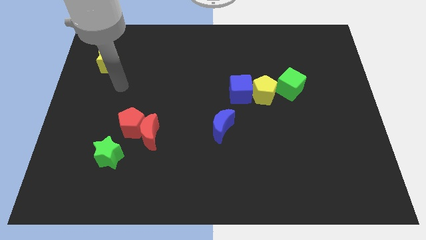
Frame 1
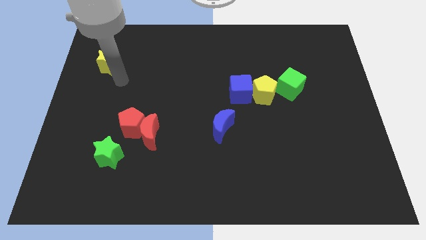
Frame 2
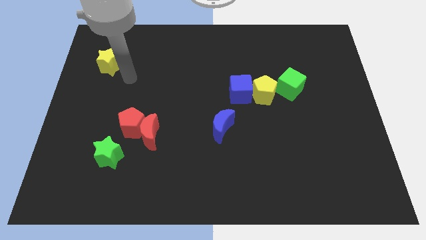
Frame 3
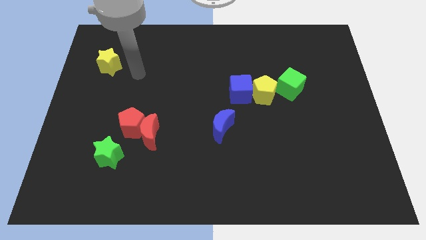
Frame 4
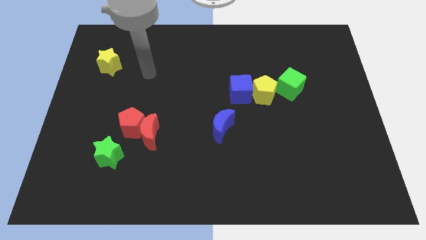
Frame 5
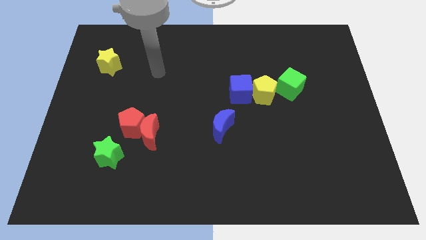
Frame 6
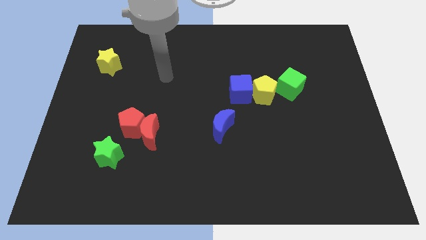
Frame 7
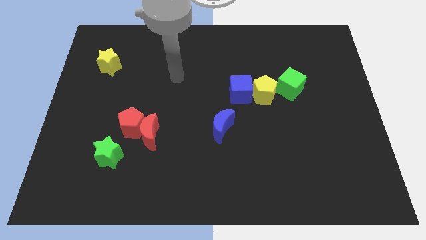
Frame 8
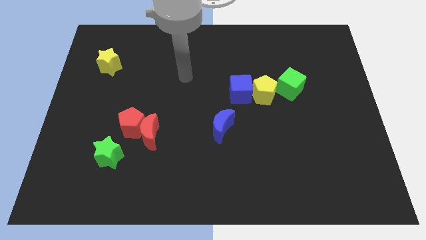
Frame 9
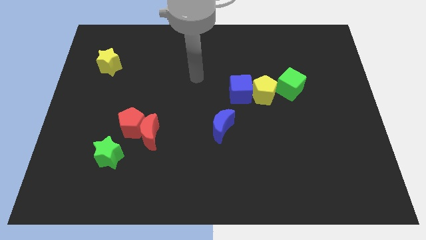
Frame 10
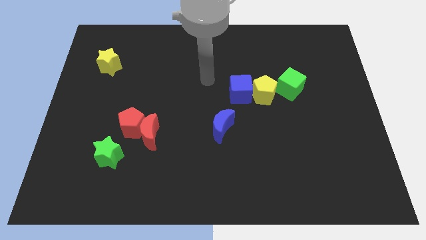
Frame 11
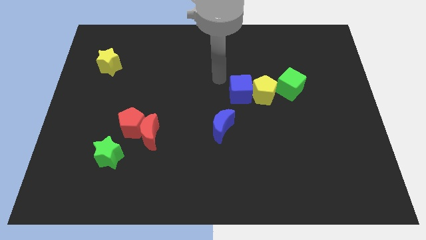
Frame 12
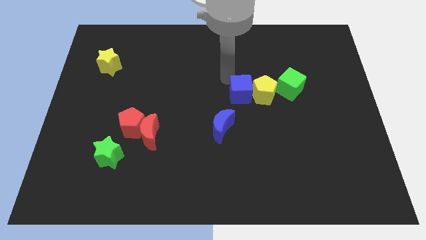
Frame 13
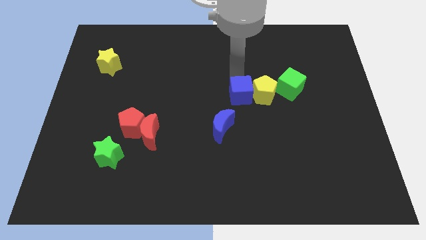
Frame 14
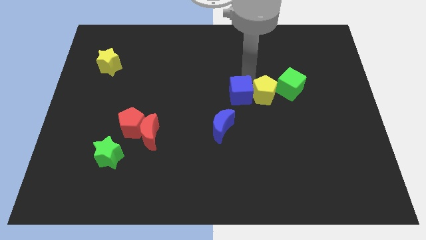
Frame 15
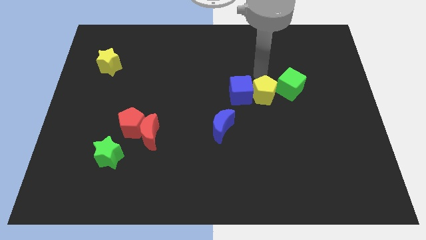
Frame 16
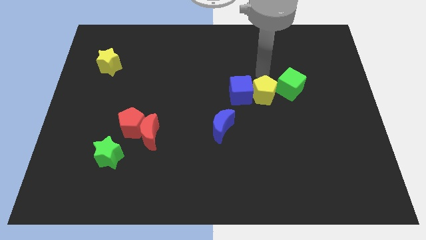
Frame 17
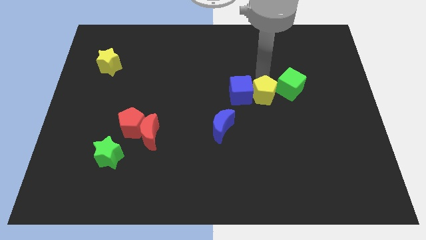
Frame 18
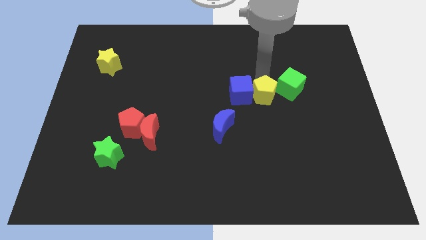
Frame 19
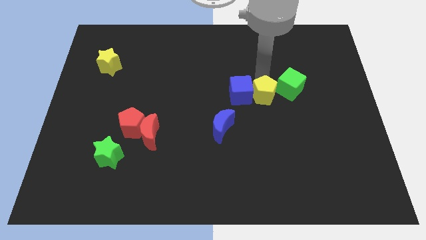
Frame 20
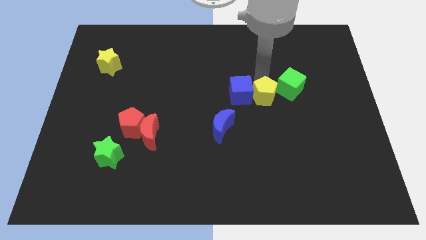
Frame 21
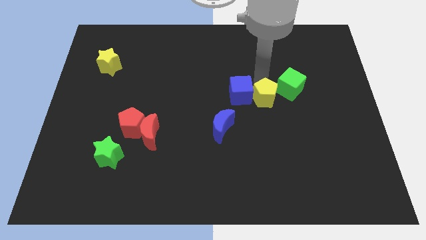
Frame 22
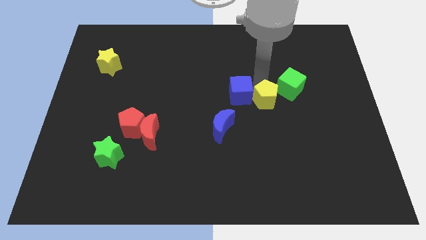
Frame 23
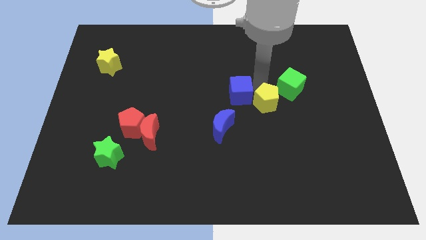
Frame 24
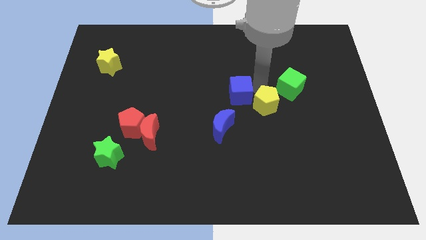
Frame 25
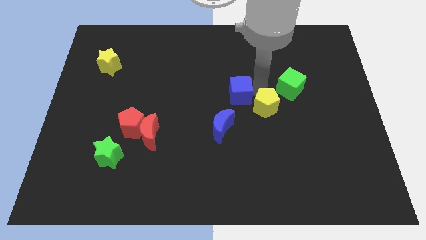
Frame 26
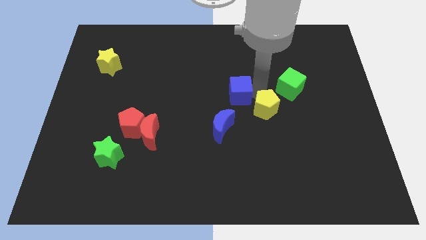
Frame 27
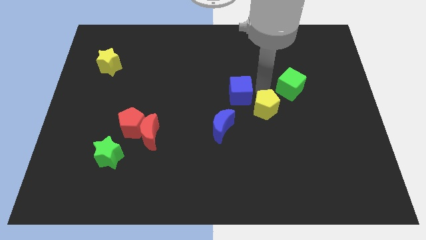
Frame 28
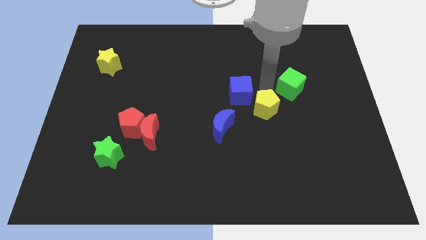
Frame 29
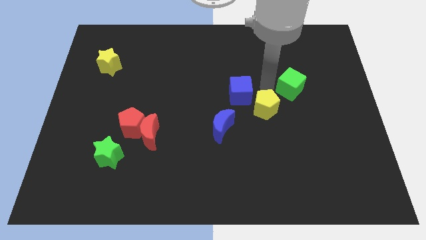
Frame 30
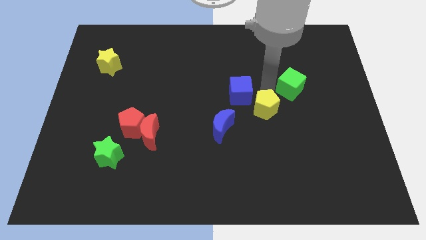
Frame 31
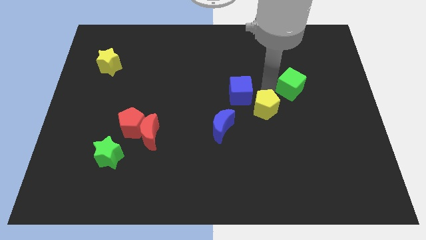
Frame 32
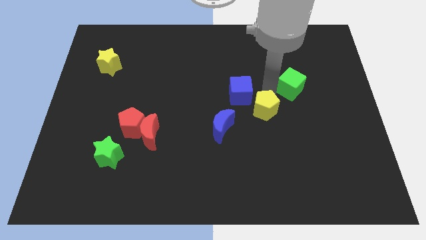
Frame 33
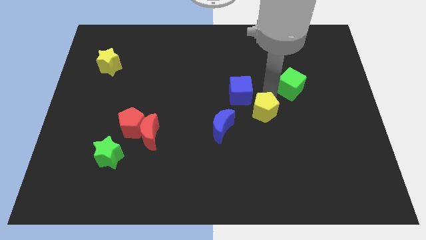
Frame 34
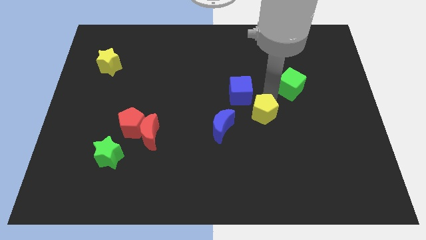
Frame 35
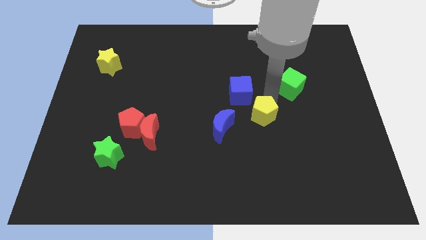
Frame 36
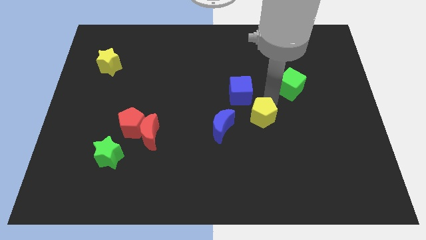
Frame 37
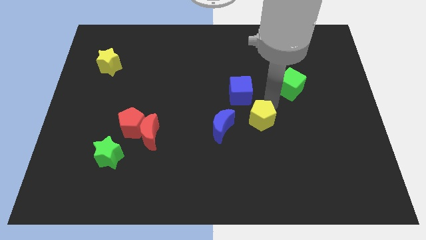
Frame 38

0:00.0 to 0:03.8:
slightly slide the yellow pentagon downwards

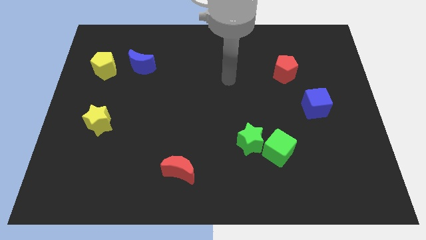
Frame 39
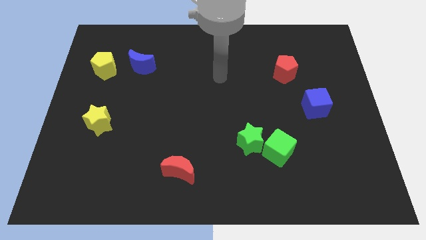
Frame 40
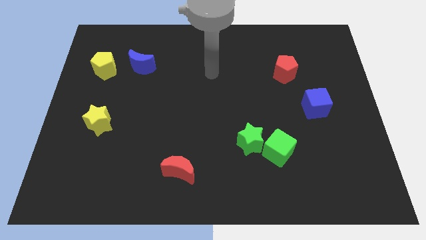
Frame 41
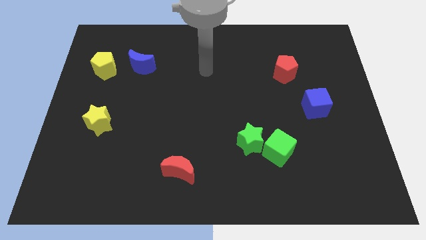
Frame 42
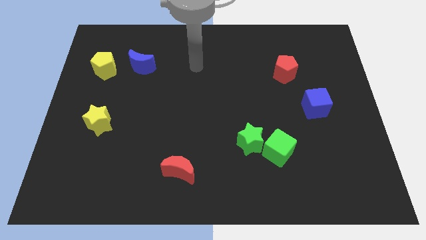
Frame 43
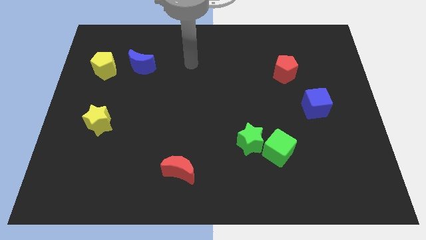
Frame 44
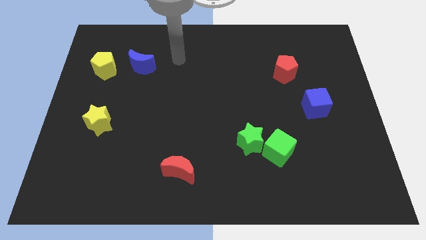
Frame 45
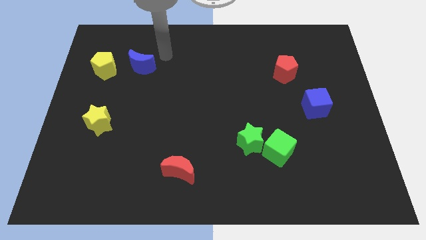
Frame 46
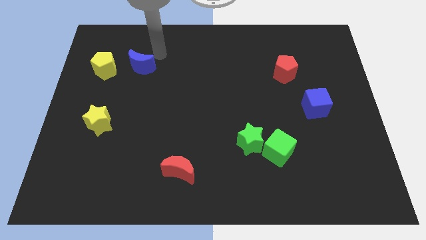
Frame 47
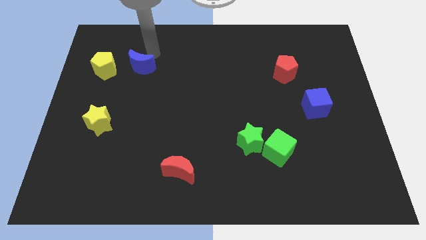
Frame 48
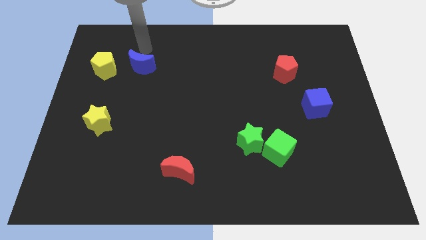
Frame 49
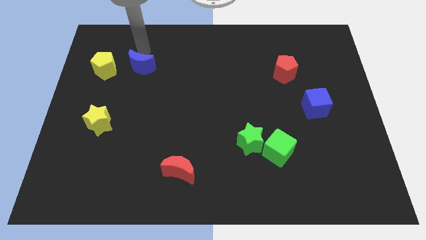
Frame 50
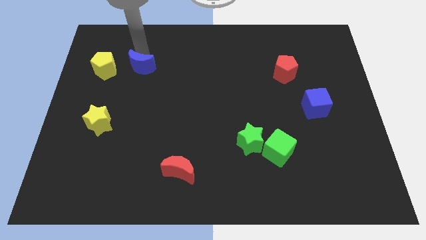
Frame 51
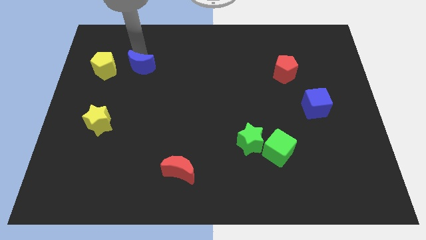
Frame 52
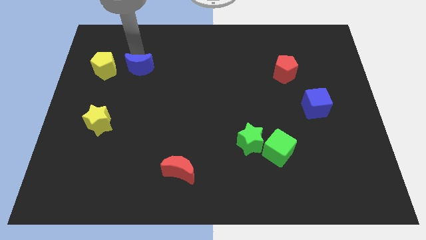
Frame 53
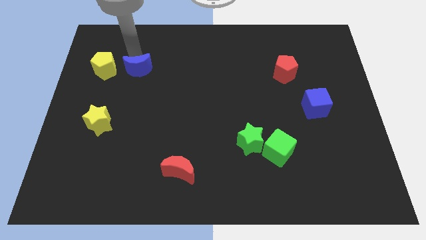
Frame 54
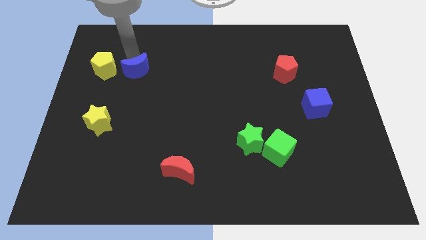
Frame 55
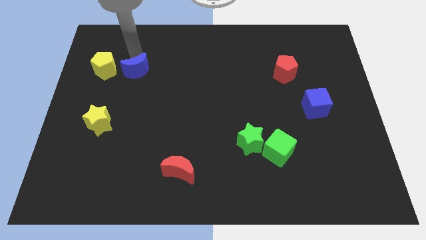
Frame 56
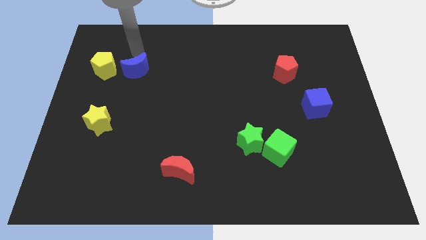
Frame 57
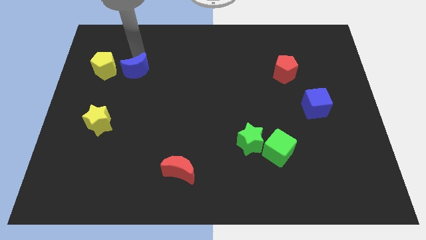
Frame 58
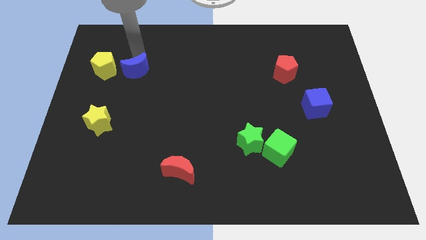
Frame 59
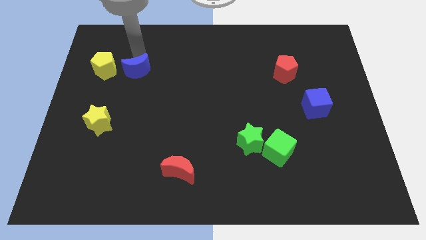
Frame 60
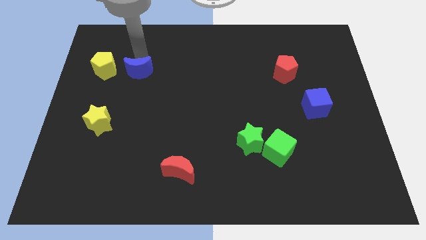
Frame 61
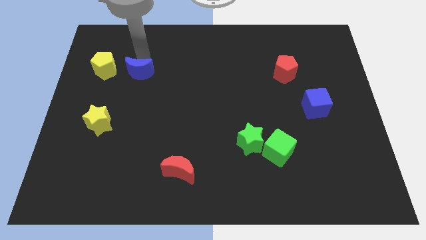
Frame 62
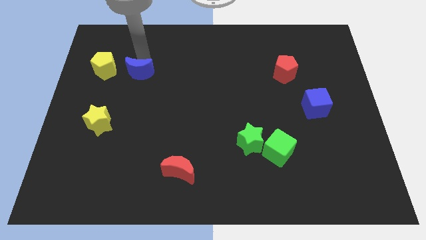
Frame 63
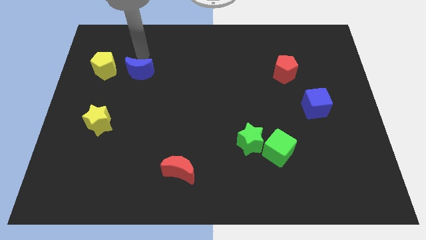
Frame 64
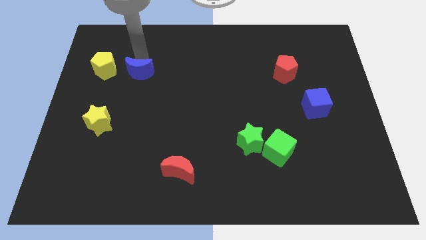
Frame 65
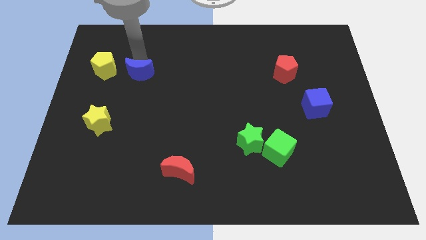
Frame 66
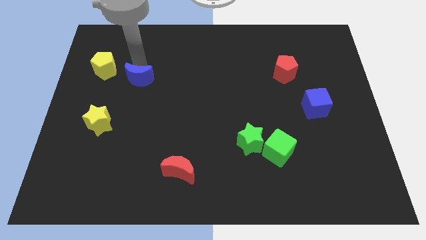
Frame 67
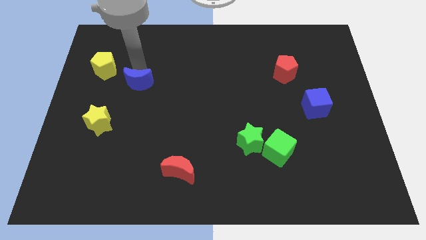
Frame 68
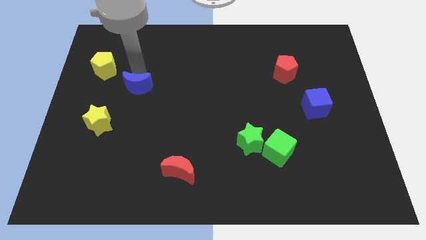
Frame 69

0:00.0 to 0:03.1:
slide the blue moon a little down

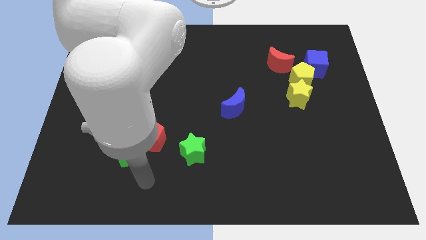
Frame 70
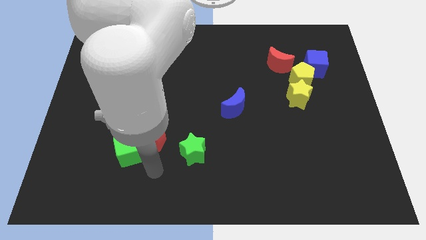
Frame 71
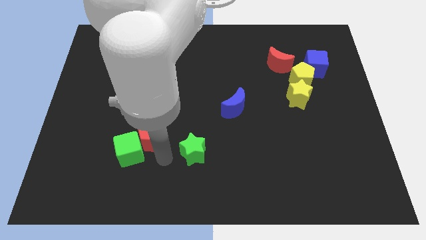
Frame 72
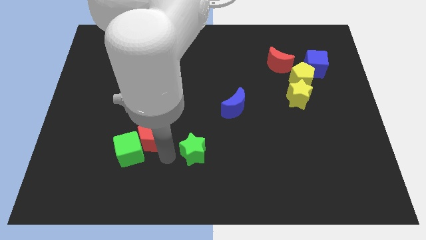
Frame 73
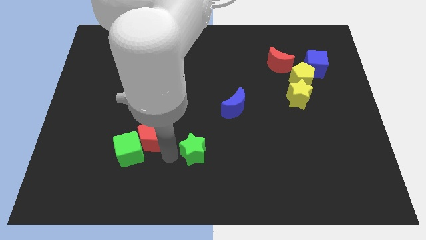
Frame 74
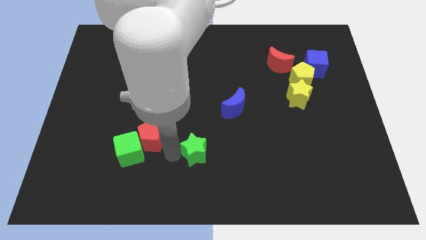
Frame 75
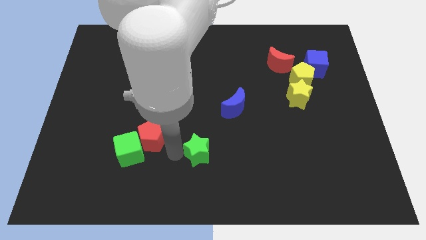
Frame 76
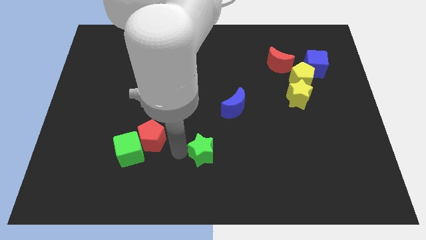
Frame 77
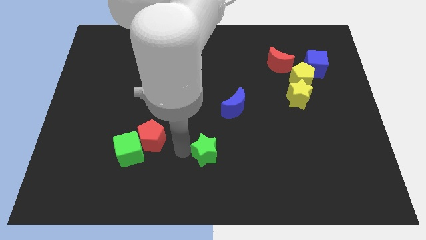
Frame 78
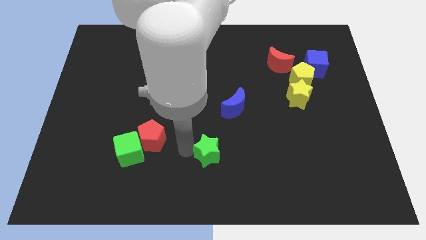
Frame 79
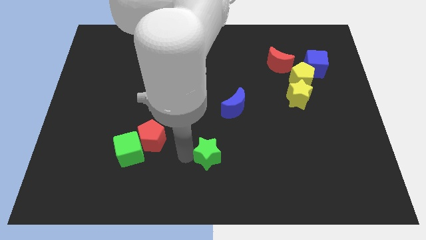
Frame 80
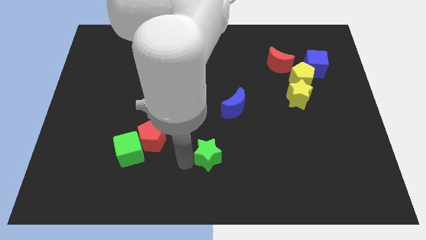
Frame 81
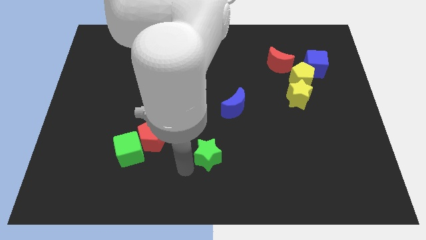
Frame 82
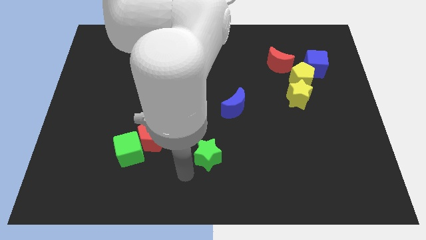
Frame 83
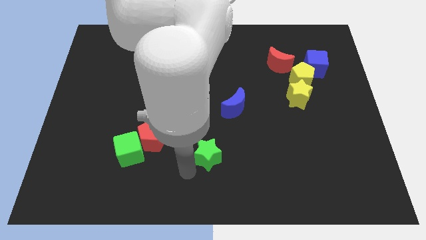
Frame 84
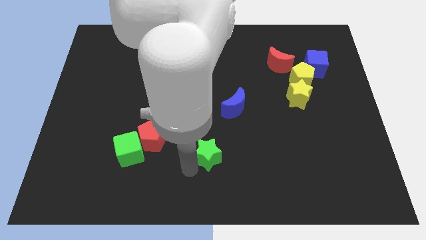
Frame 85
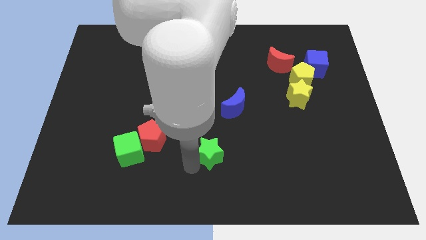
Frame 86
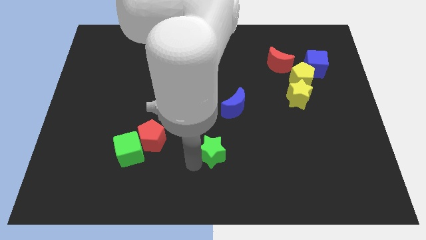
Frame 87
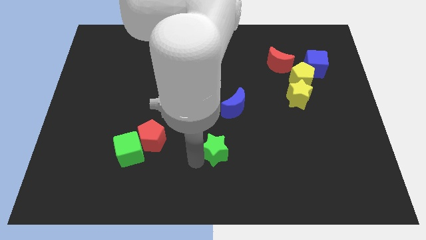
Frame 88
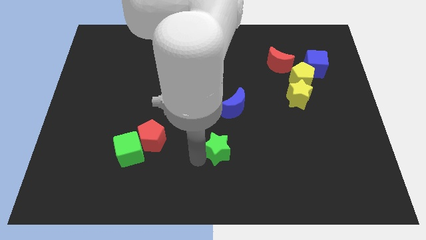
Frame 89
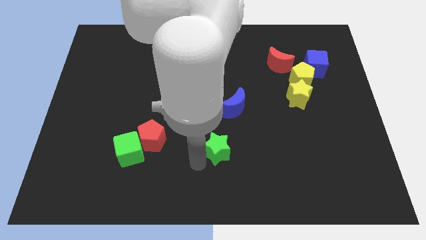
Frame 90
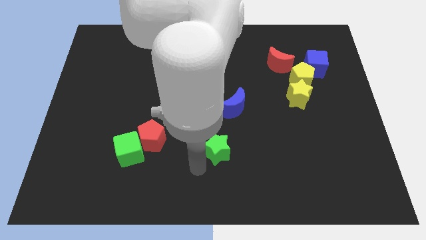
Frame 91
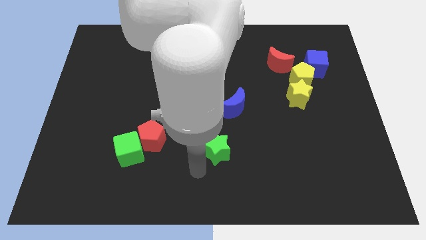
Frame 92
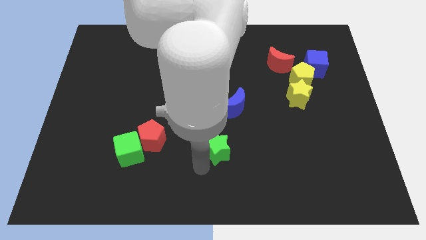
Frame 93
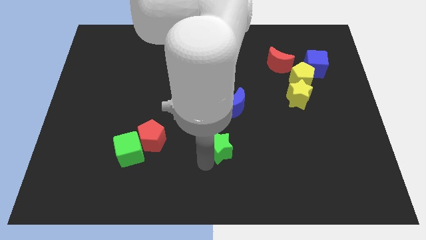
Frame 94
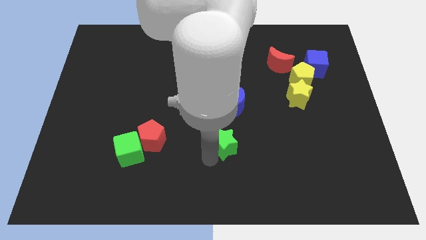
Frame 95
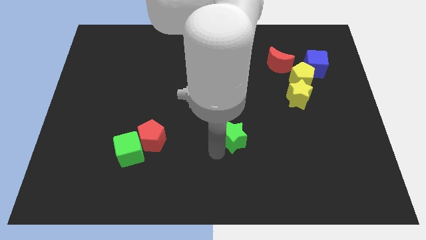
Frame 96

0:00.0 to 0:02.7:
slightly slide the green star upwards and right
